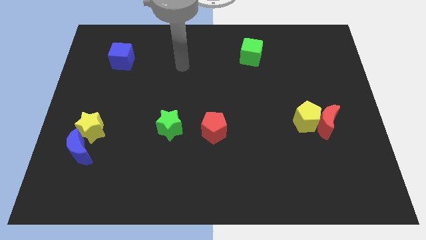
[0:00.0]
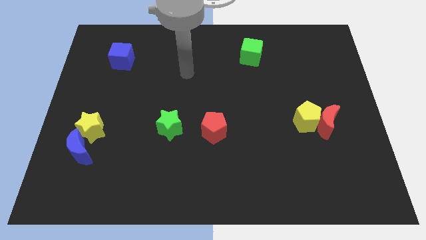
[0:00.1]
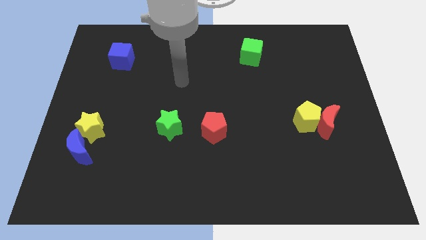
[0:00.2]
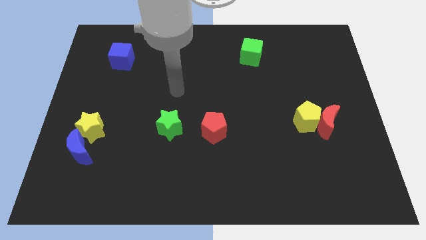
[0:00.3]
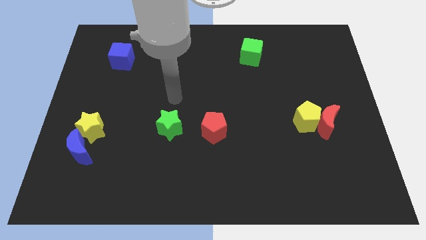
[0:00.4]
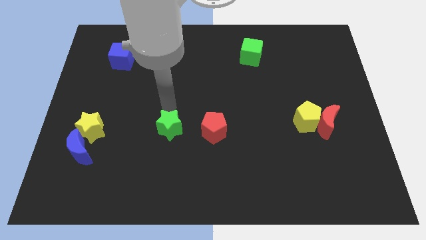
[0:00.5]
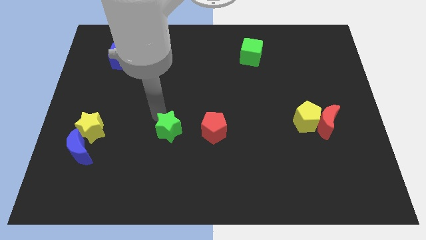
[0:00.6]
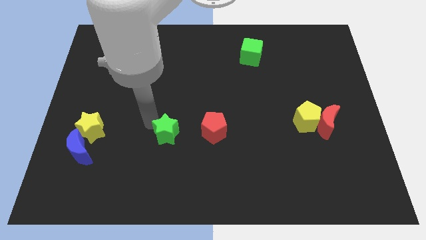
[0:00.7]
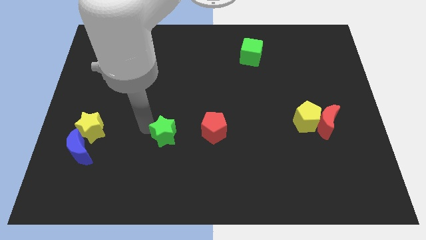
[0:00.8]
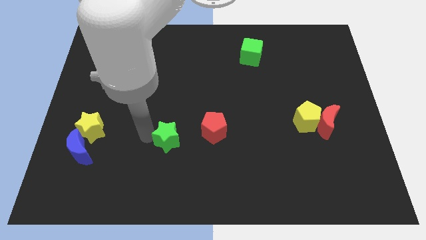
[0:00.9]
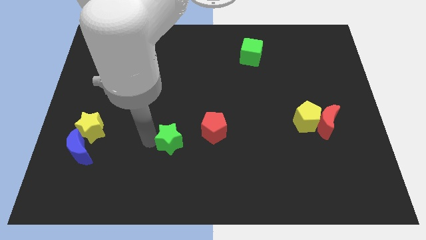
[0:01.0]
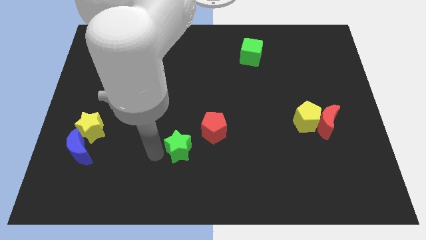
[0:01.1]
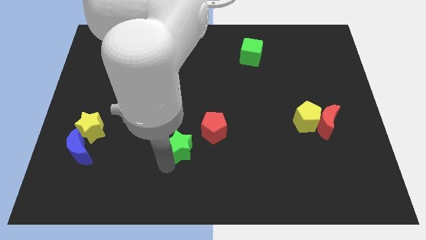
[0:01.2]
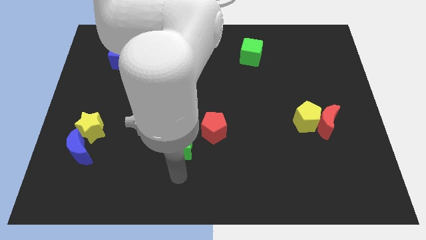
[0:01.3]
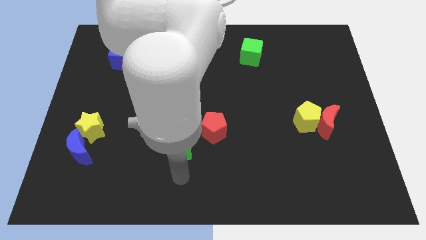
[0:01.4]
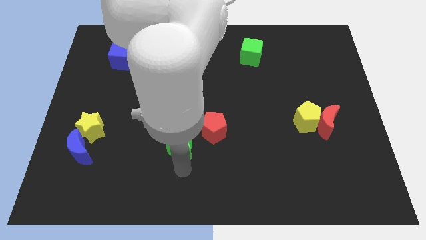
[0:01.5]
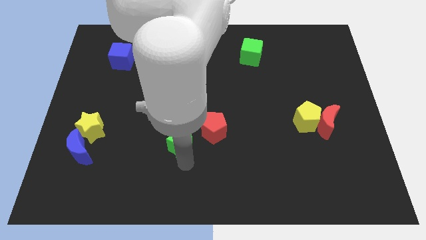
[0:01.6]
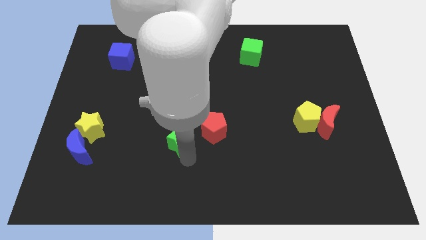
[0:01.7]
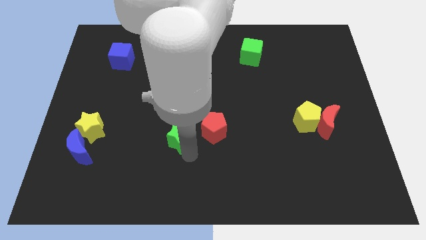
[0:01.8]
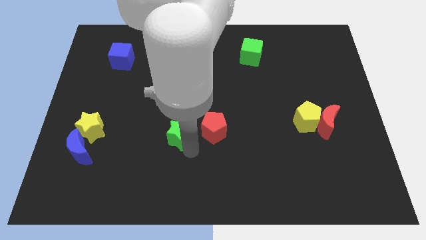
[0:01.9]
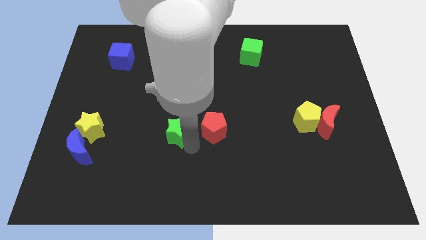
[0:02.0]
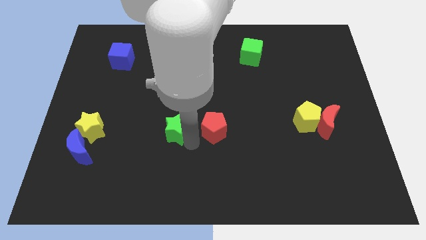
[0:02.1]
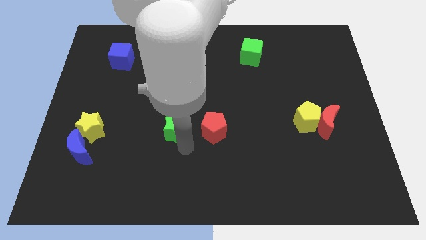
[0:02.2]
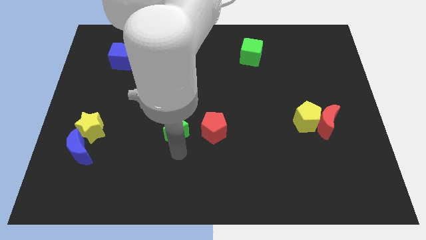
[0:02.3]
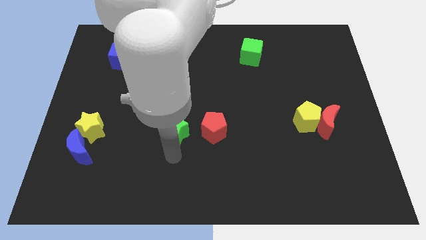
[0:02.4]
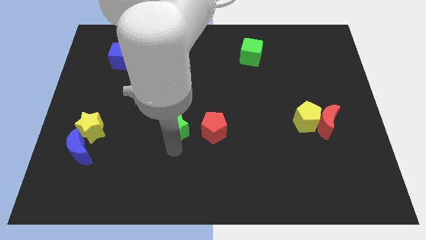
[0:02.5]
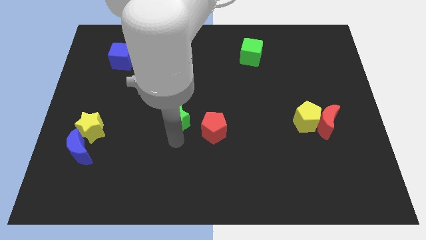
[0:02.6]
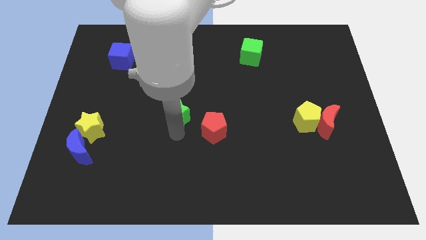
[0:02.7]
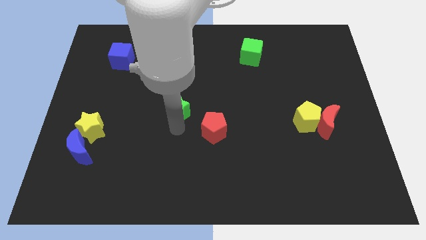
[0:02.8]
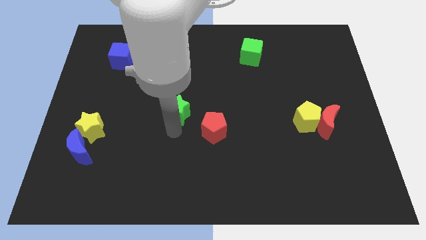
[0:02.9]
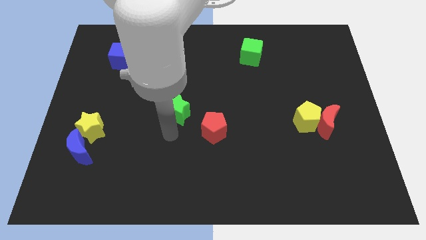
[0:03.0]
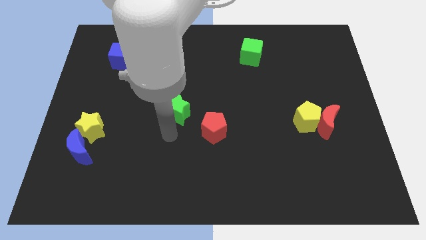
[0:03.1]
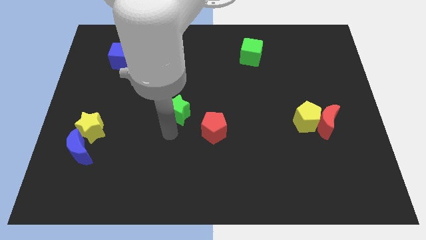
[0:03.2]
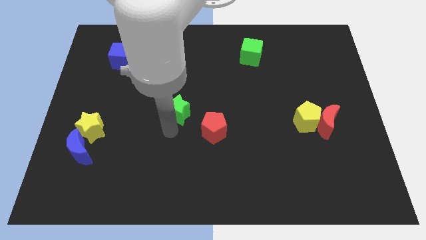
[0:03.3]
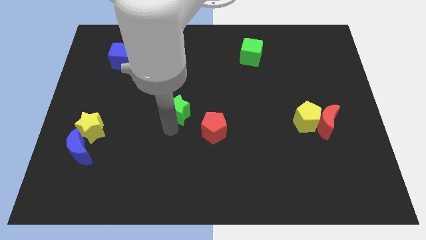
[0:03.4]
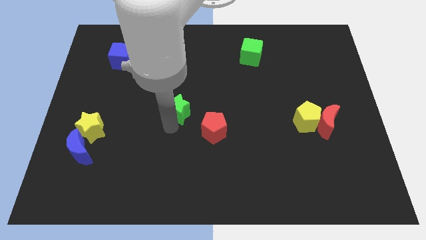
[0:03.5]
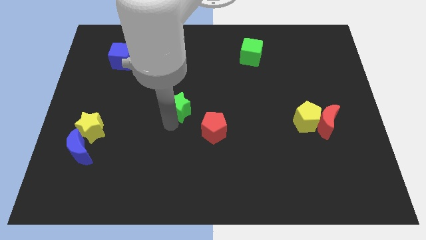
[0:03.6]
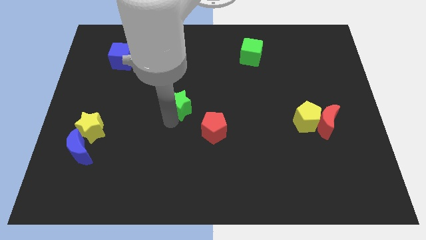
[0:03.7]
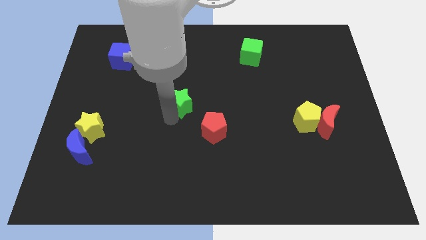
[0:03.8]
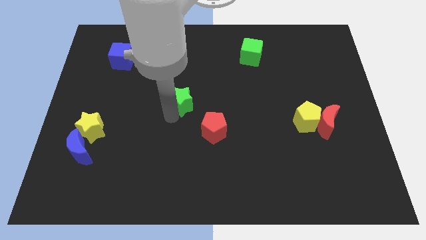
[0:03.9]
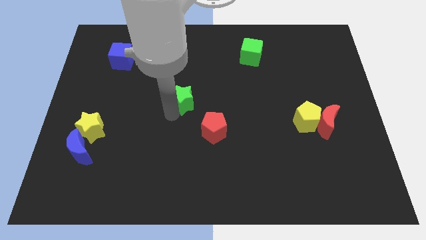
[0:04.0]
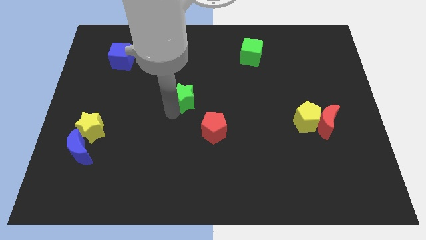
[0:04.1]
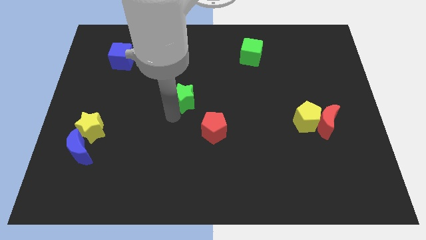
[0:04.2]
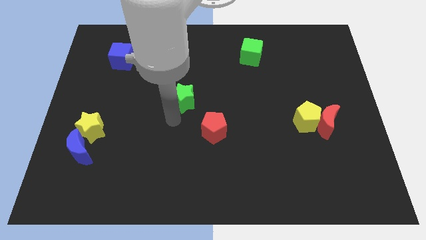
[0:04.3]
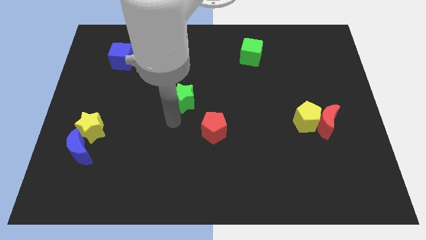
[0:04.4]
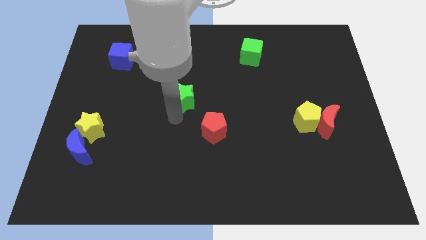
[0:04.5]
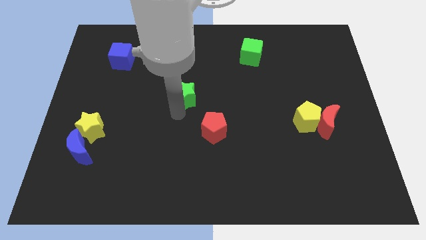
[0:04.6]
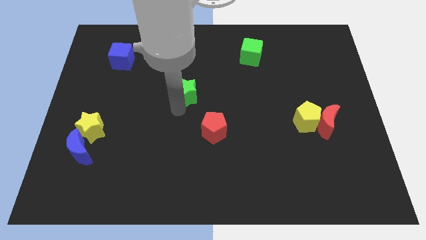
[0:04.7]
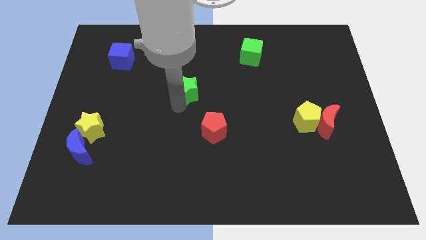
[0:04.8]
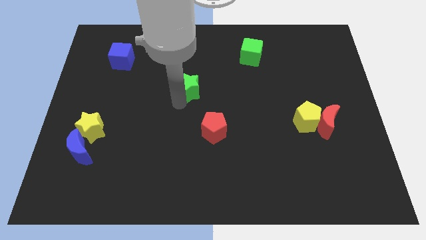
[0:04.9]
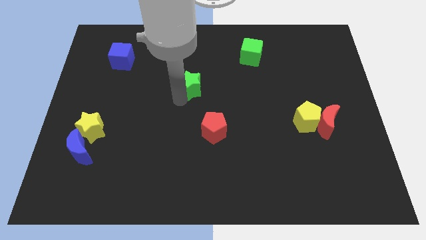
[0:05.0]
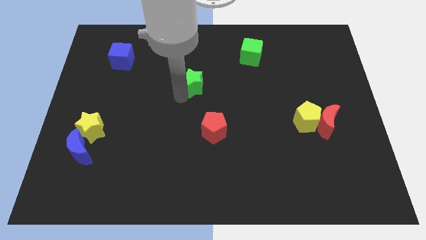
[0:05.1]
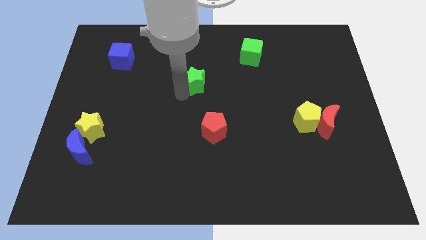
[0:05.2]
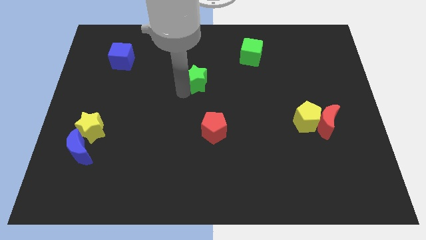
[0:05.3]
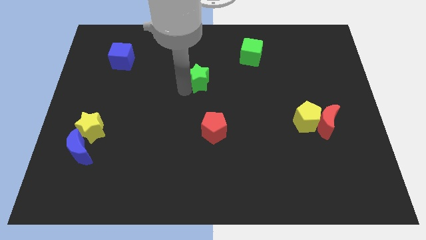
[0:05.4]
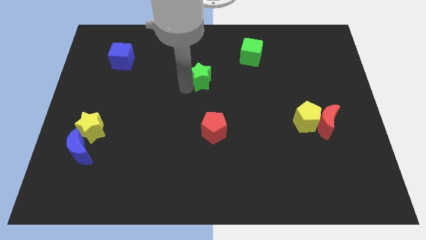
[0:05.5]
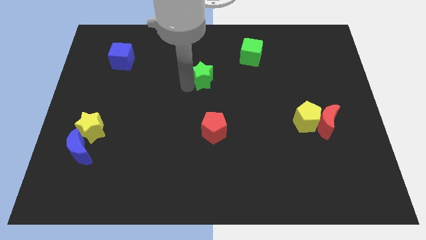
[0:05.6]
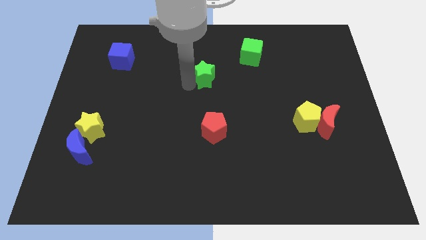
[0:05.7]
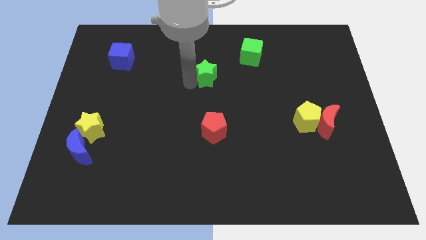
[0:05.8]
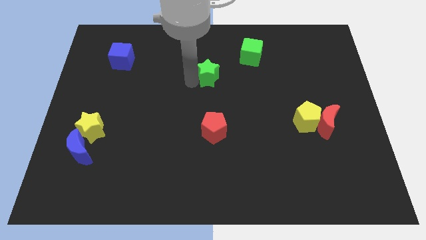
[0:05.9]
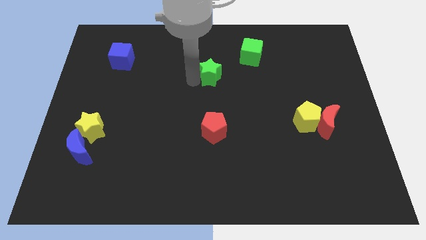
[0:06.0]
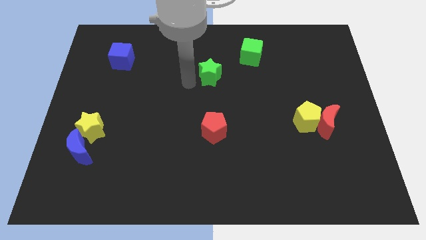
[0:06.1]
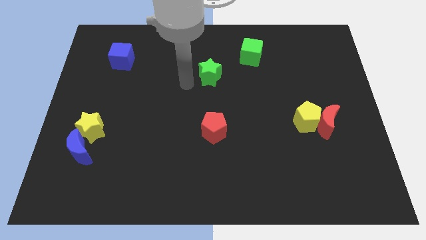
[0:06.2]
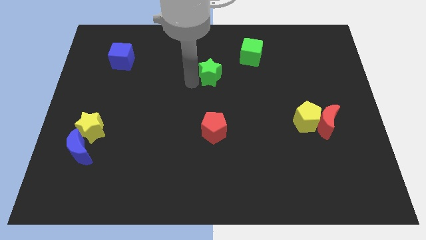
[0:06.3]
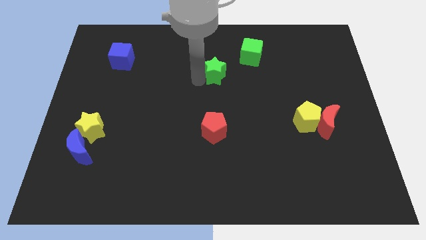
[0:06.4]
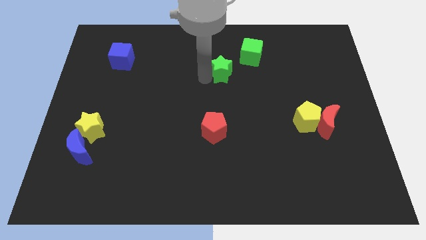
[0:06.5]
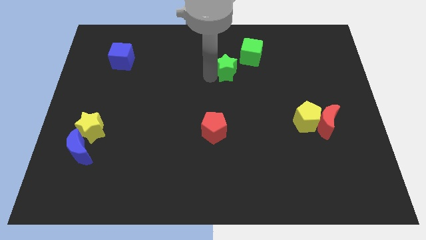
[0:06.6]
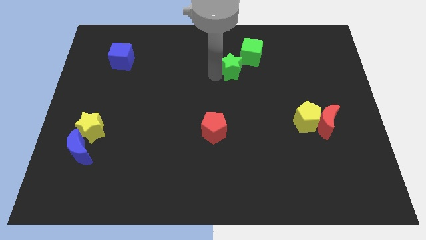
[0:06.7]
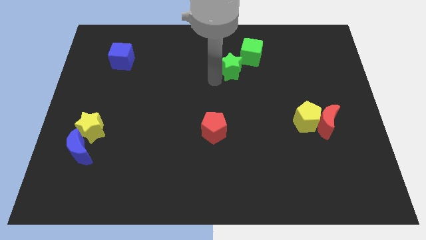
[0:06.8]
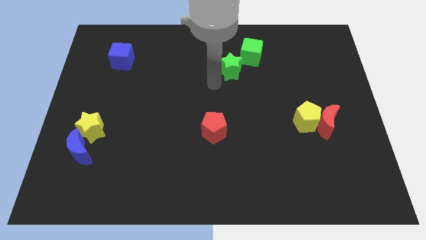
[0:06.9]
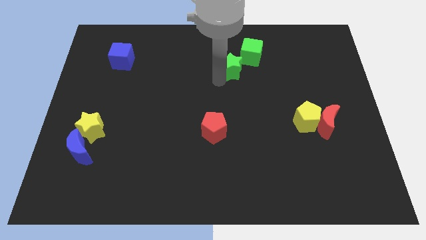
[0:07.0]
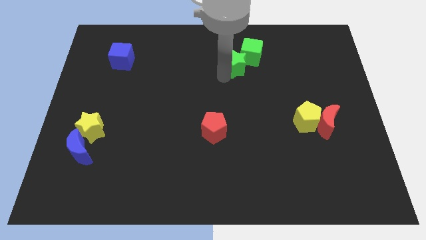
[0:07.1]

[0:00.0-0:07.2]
put the green star close to the green cube
